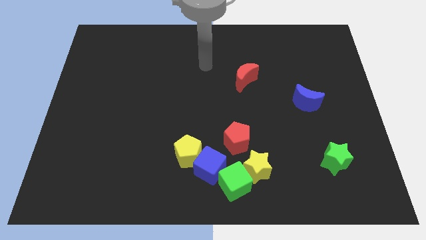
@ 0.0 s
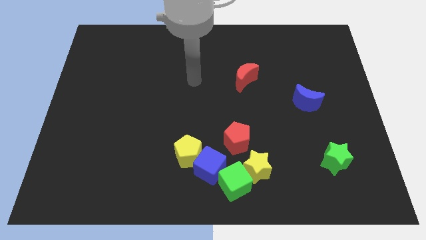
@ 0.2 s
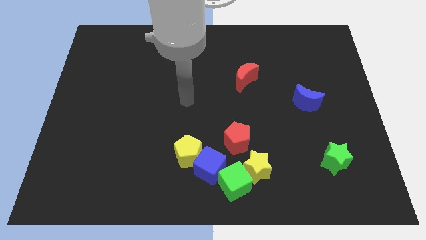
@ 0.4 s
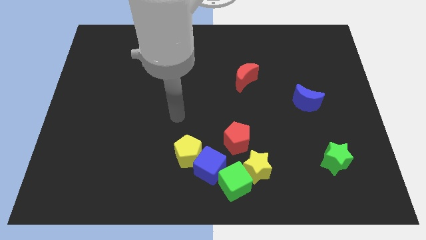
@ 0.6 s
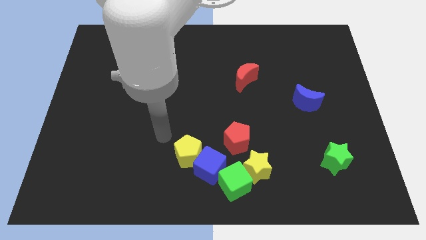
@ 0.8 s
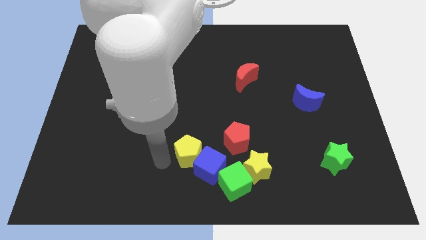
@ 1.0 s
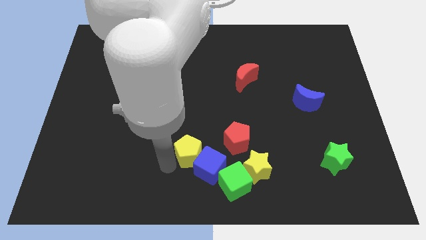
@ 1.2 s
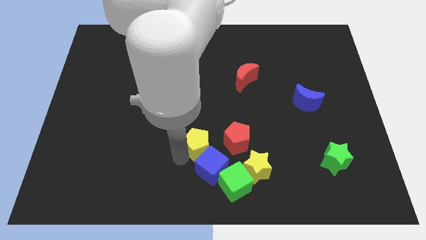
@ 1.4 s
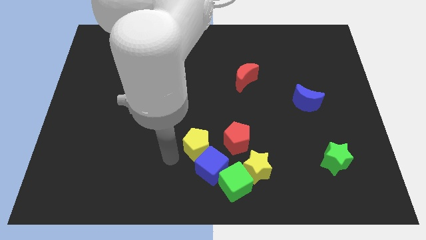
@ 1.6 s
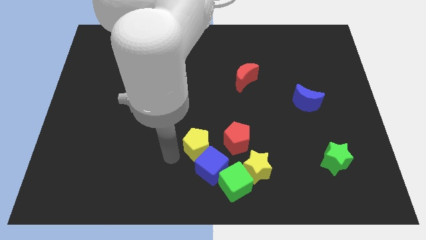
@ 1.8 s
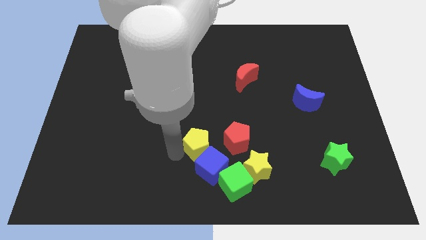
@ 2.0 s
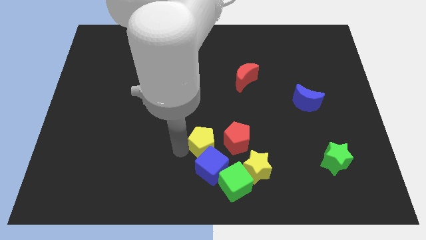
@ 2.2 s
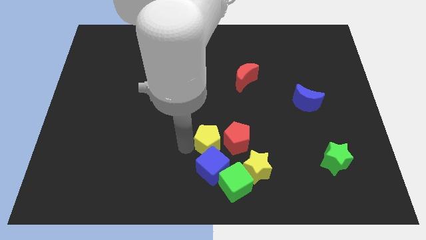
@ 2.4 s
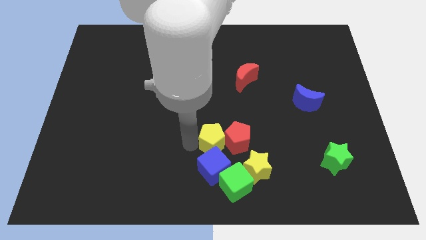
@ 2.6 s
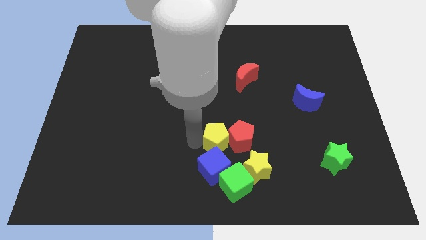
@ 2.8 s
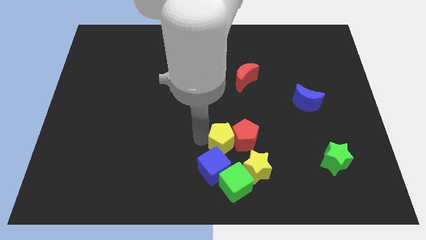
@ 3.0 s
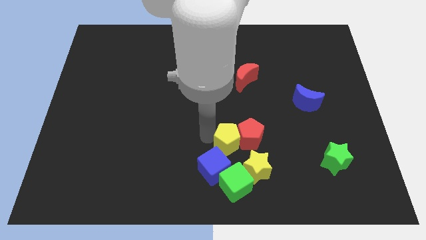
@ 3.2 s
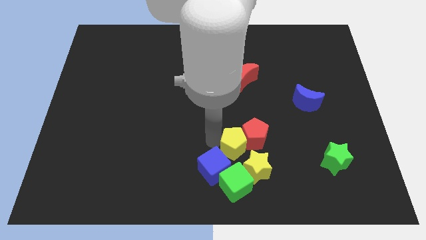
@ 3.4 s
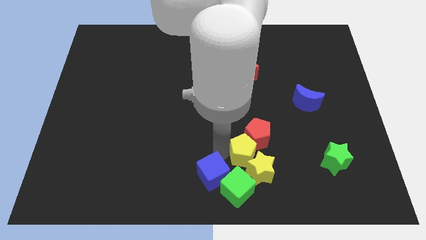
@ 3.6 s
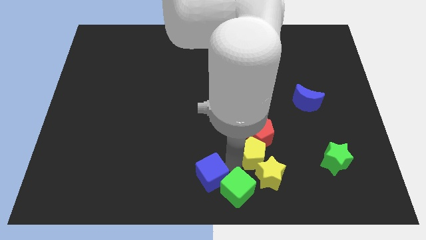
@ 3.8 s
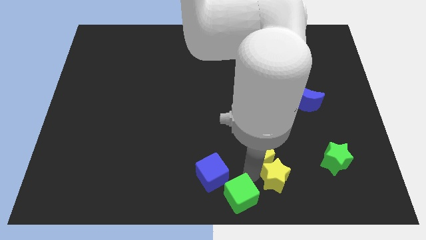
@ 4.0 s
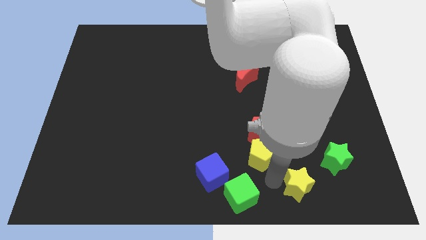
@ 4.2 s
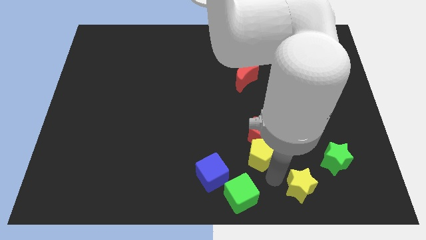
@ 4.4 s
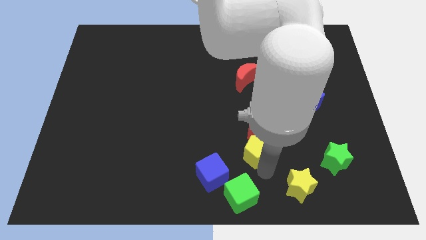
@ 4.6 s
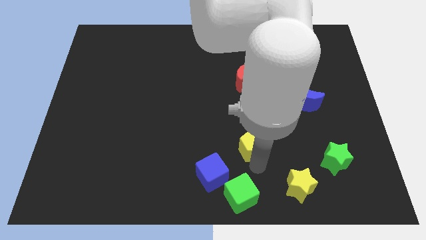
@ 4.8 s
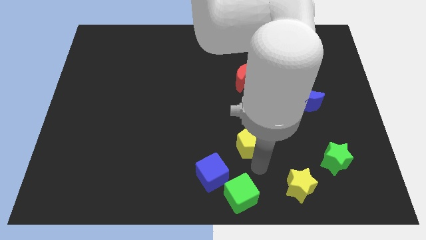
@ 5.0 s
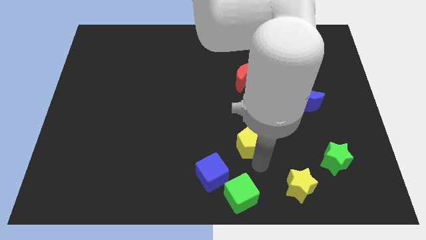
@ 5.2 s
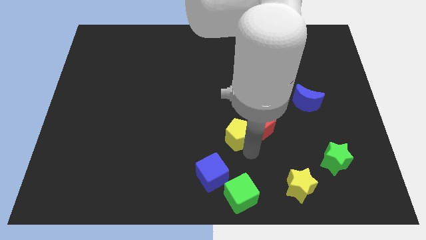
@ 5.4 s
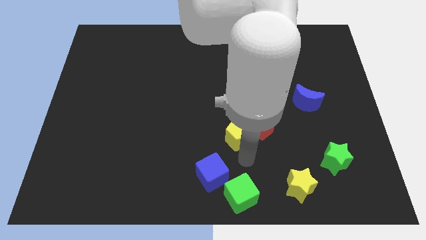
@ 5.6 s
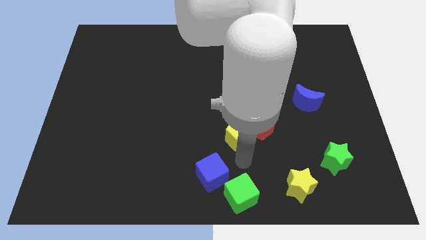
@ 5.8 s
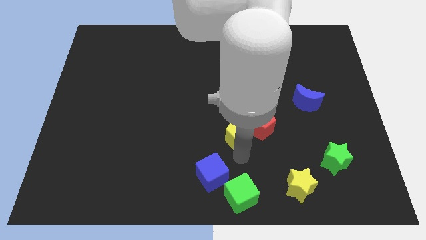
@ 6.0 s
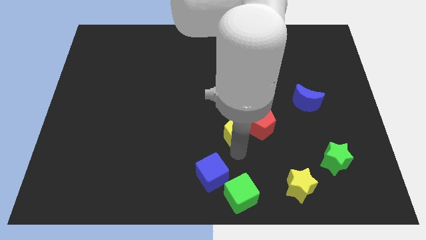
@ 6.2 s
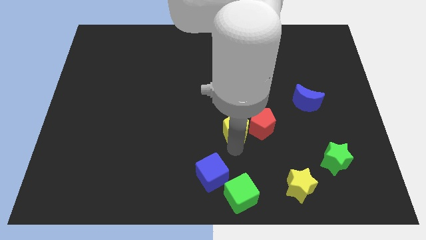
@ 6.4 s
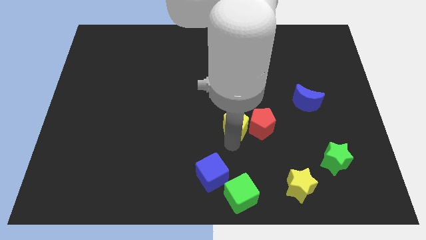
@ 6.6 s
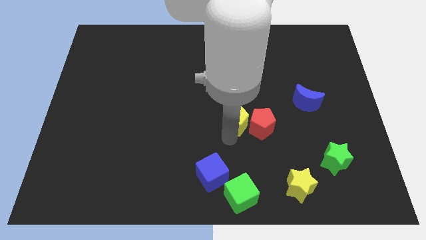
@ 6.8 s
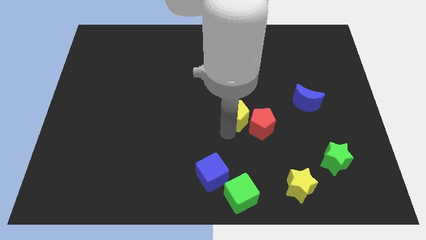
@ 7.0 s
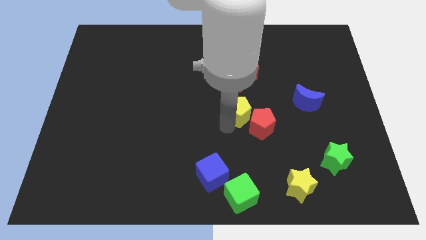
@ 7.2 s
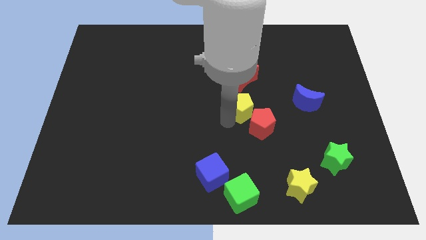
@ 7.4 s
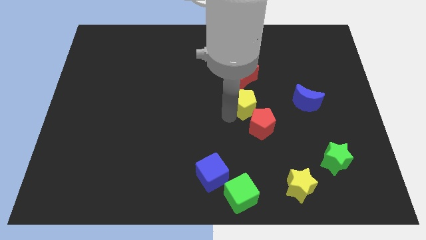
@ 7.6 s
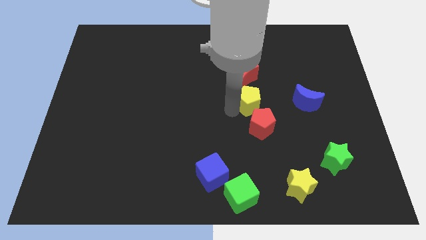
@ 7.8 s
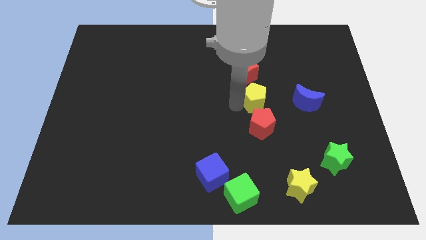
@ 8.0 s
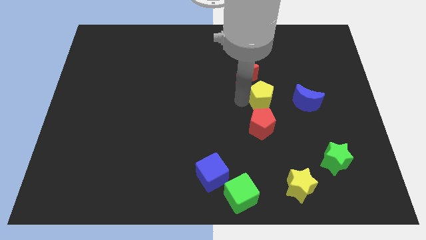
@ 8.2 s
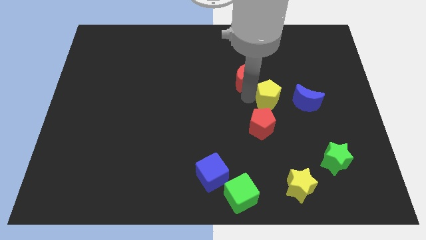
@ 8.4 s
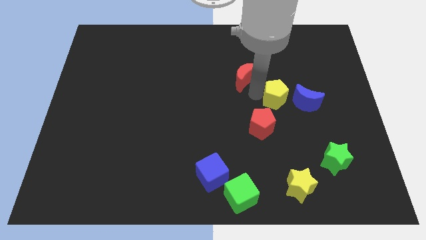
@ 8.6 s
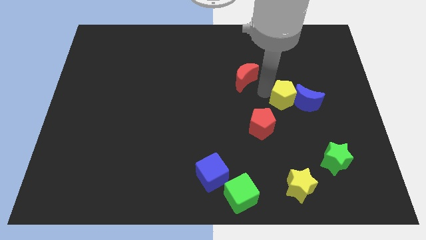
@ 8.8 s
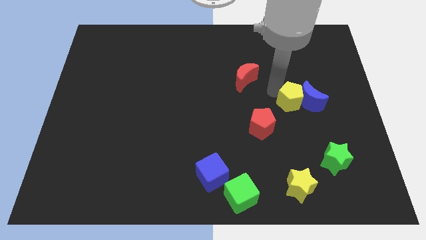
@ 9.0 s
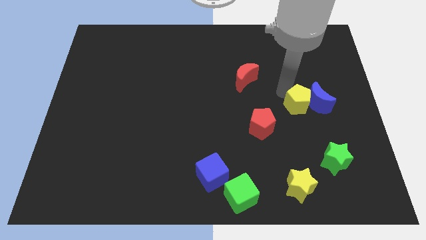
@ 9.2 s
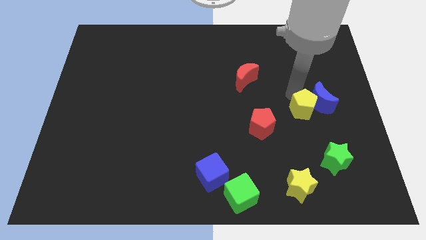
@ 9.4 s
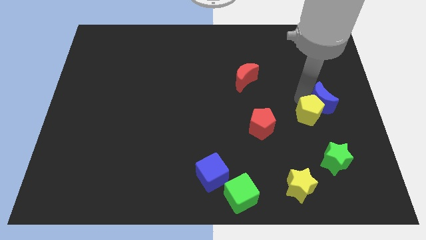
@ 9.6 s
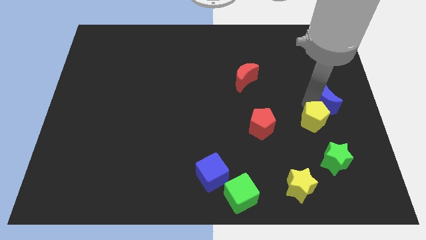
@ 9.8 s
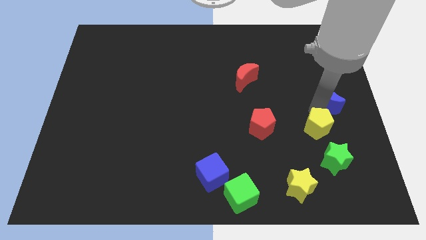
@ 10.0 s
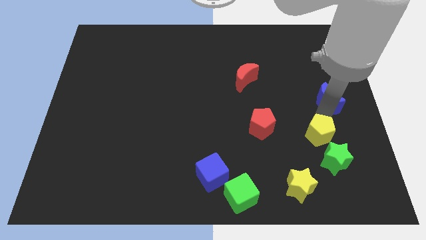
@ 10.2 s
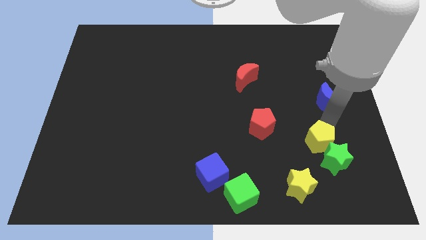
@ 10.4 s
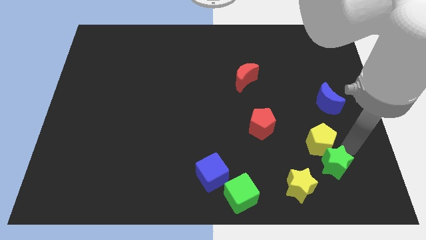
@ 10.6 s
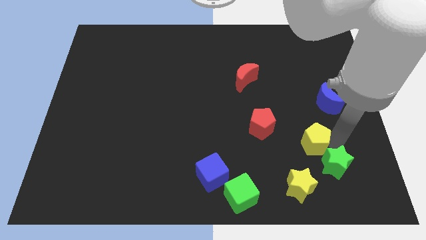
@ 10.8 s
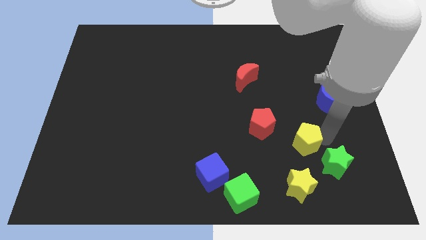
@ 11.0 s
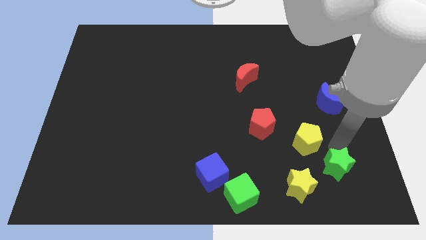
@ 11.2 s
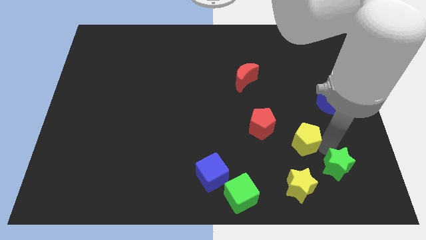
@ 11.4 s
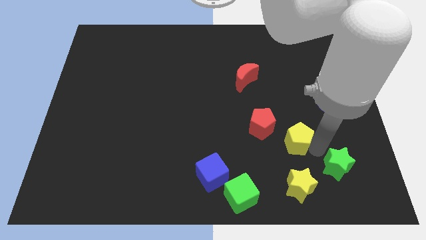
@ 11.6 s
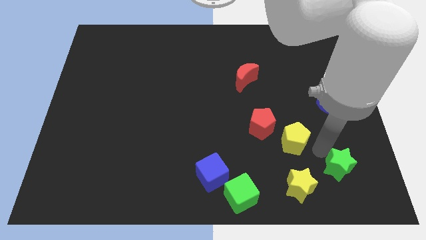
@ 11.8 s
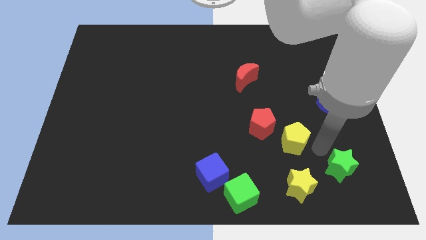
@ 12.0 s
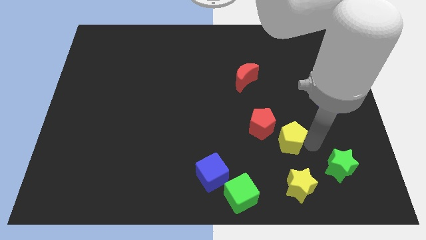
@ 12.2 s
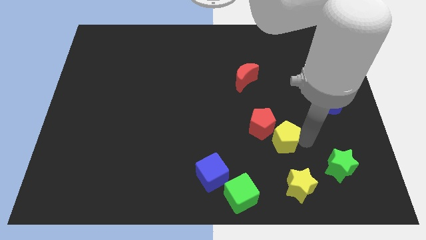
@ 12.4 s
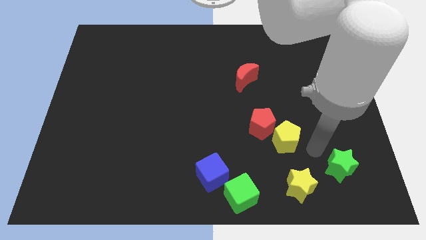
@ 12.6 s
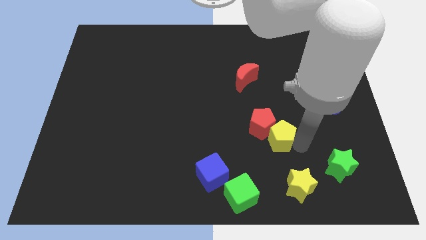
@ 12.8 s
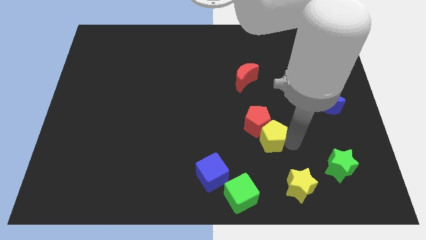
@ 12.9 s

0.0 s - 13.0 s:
put the yellow pentagon right of the red pentagon
